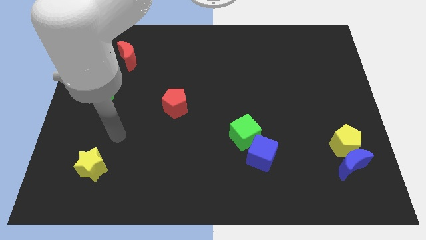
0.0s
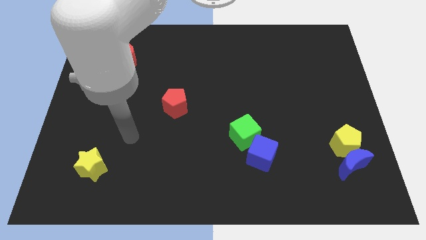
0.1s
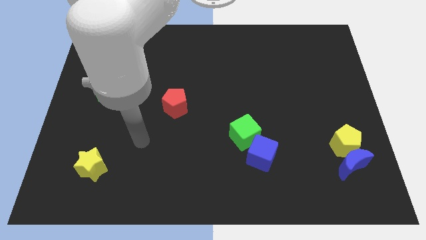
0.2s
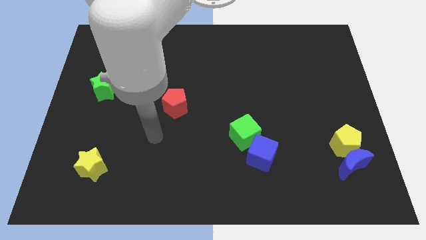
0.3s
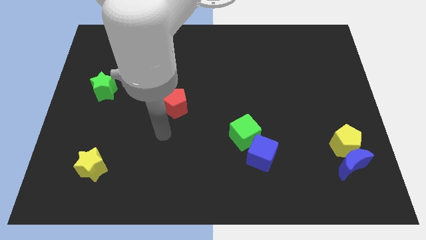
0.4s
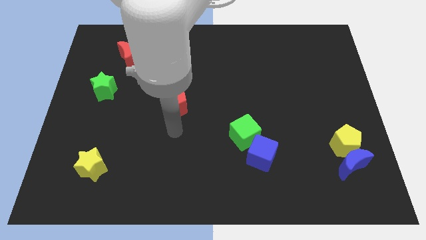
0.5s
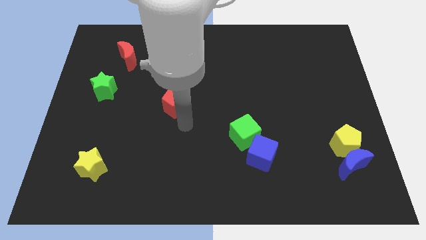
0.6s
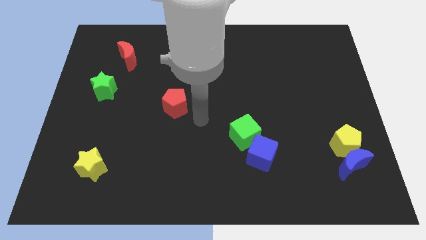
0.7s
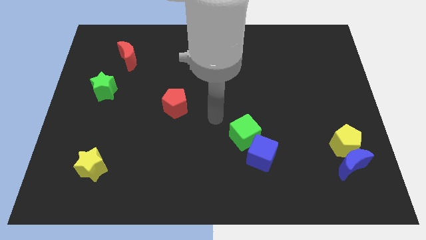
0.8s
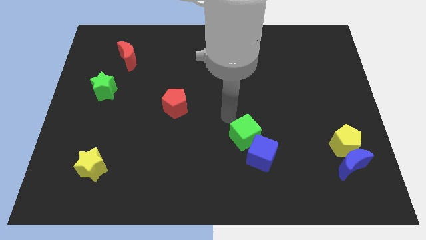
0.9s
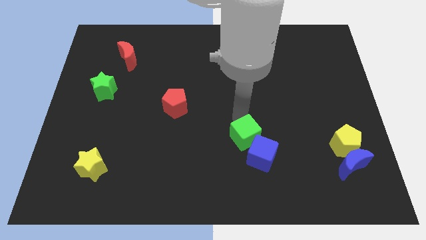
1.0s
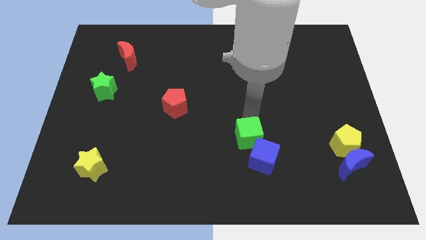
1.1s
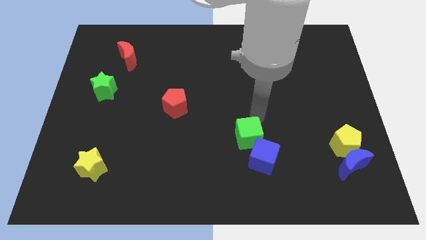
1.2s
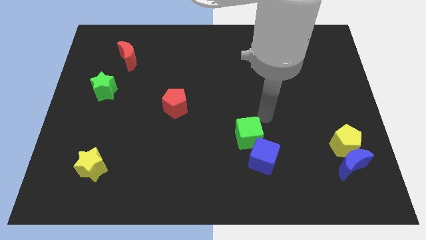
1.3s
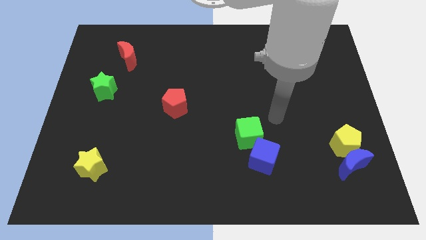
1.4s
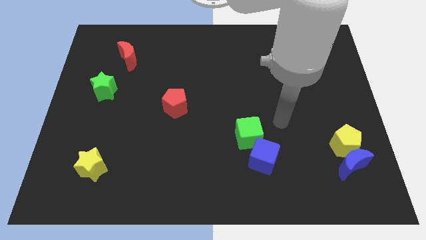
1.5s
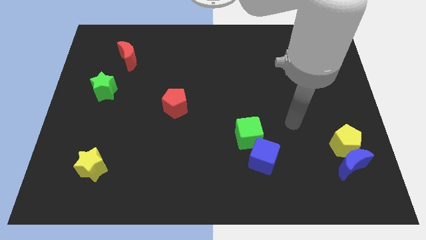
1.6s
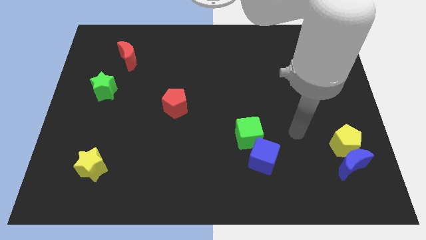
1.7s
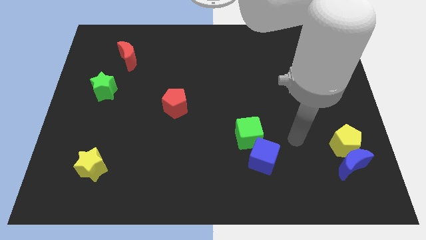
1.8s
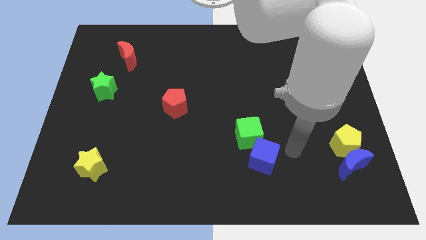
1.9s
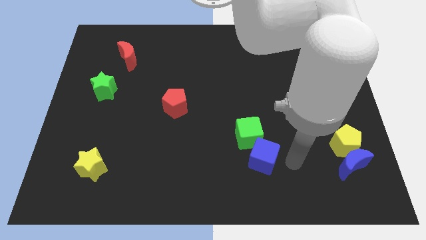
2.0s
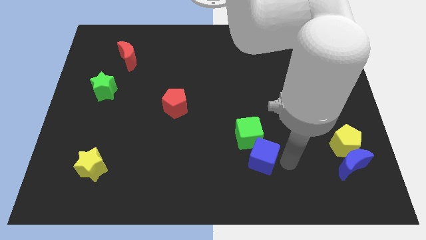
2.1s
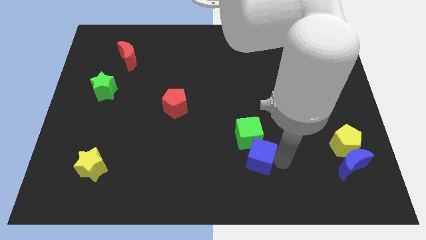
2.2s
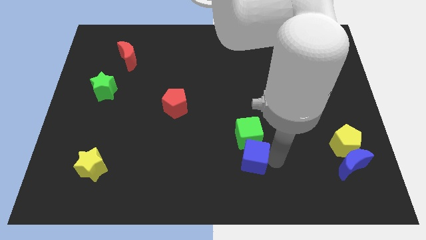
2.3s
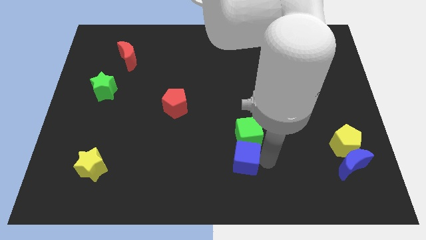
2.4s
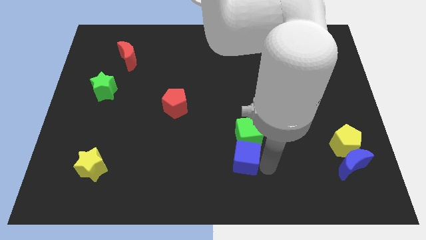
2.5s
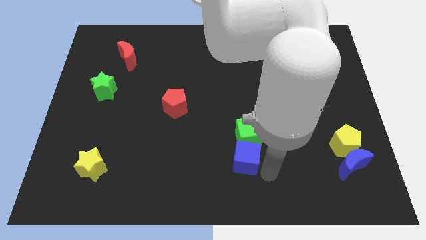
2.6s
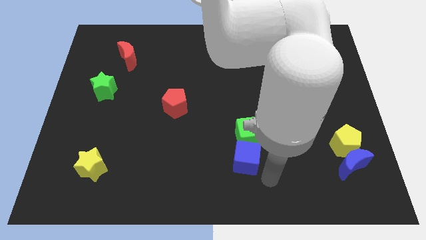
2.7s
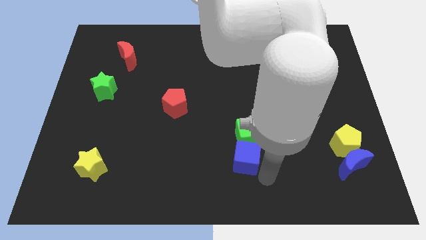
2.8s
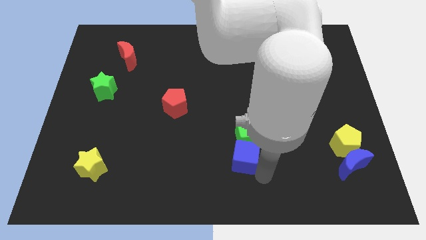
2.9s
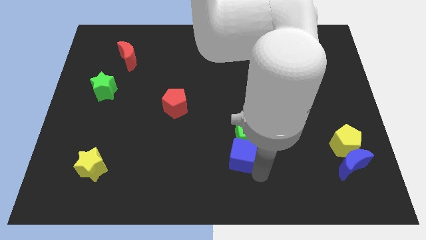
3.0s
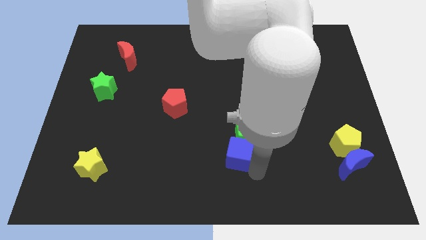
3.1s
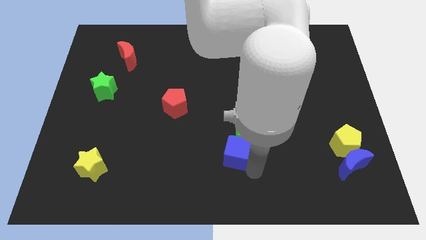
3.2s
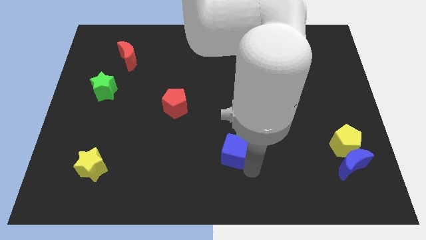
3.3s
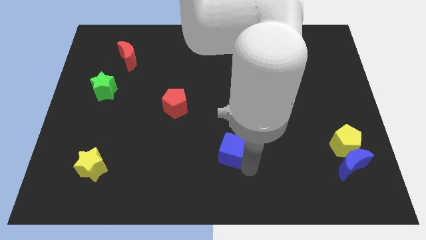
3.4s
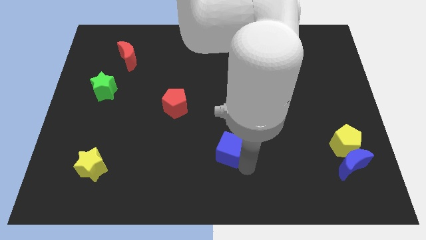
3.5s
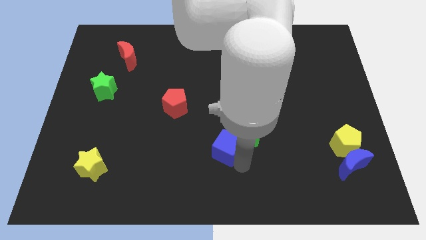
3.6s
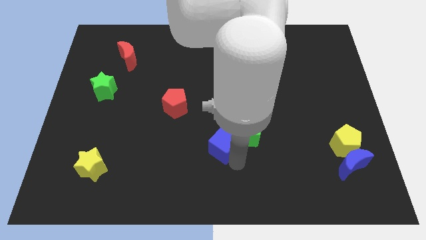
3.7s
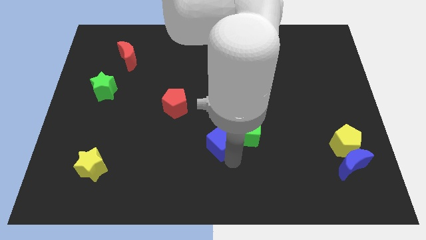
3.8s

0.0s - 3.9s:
slightly slide the blue cube upwards and to the left diagonally

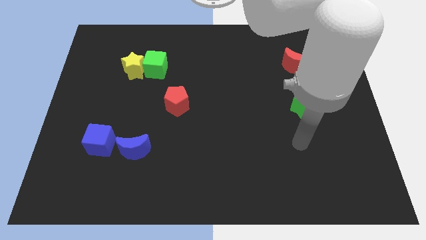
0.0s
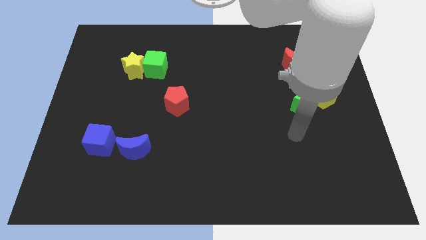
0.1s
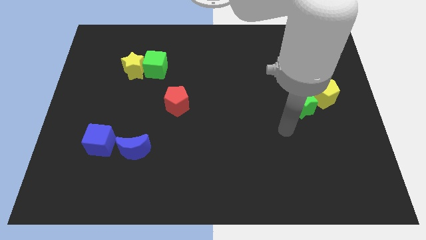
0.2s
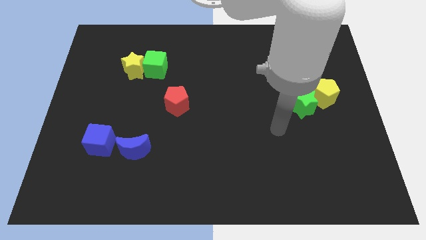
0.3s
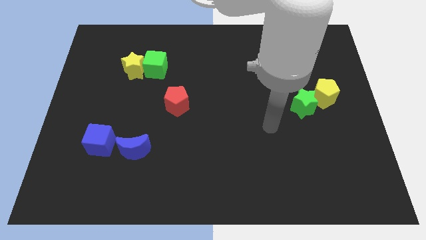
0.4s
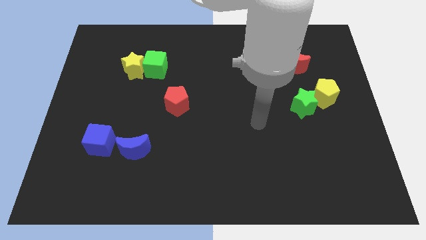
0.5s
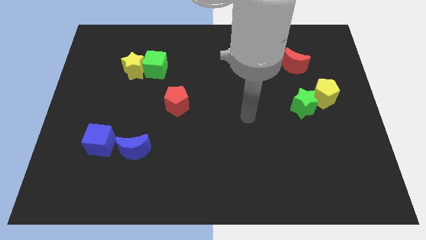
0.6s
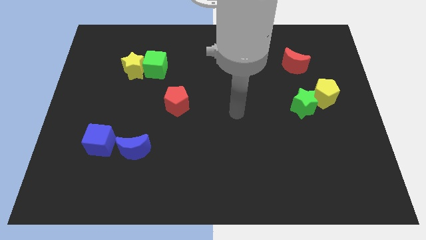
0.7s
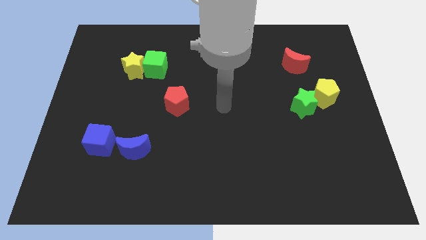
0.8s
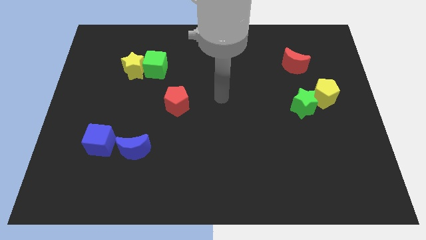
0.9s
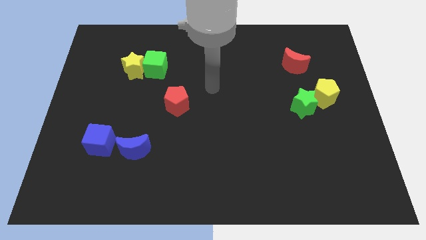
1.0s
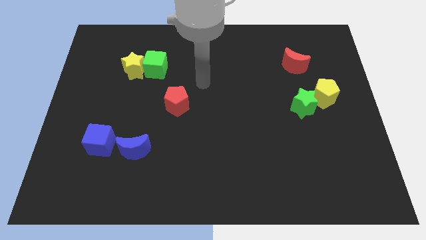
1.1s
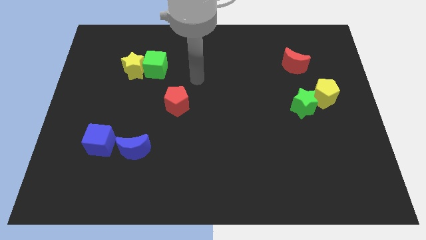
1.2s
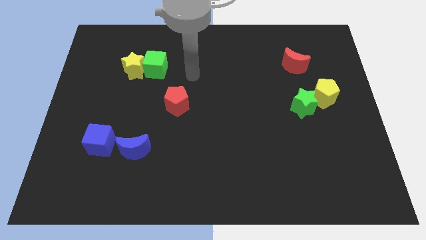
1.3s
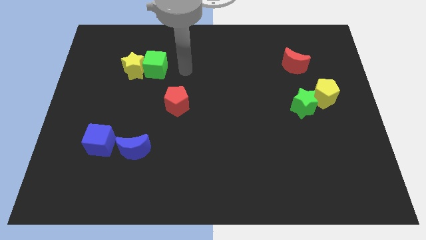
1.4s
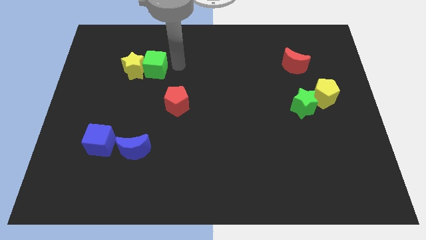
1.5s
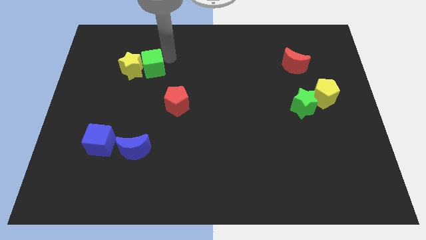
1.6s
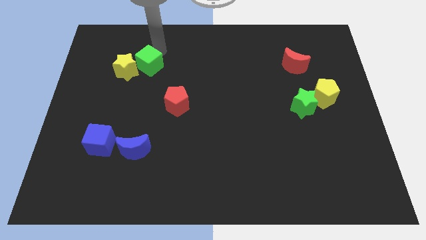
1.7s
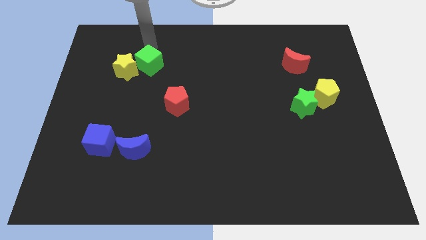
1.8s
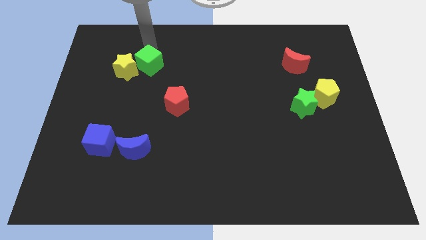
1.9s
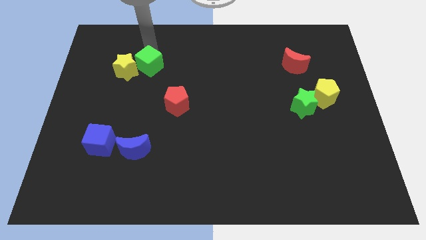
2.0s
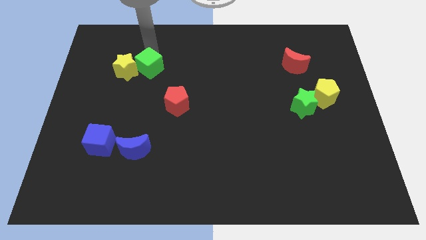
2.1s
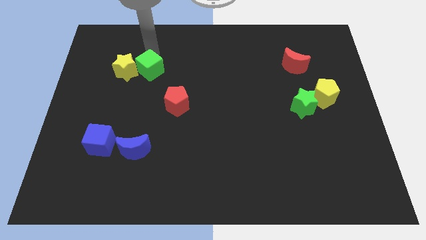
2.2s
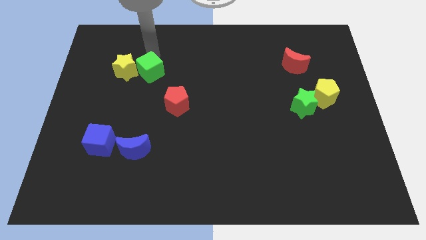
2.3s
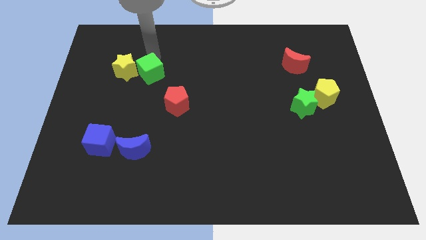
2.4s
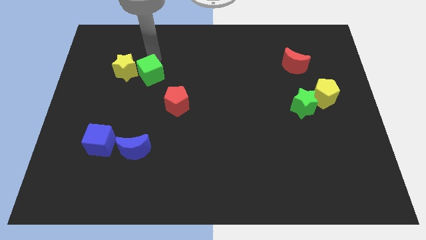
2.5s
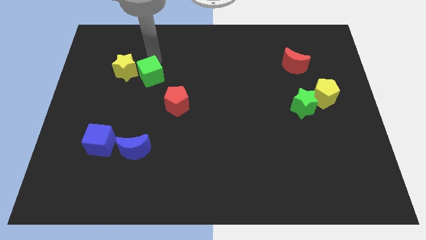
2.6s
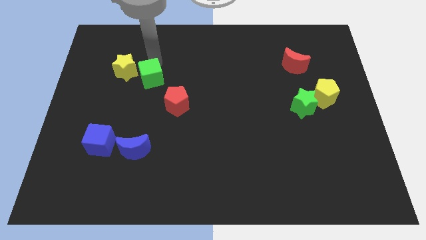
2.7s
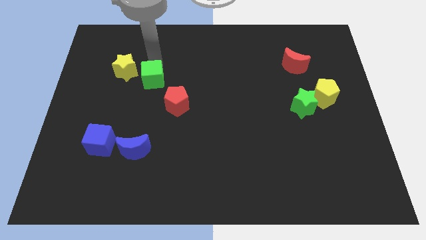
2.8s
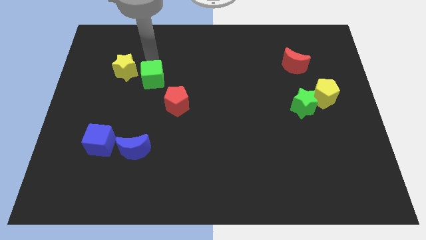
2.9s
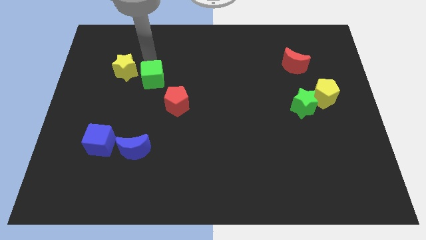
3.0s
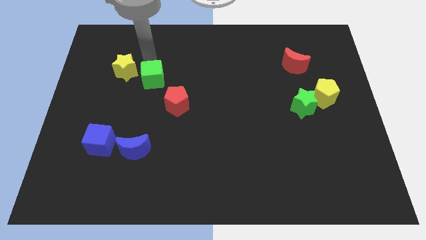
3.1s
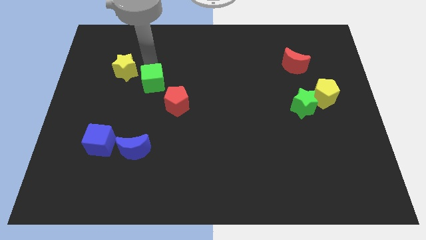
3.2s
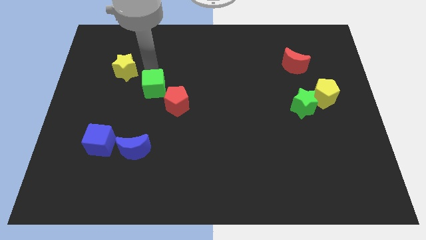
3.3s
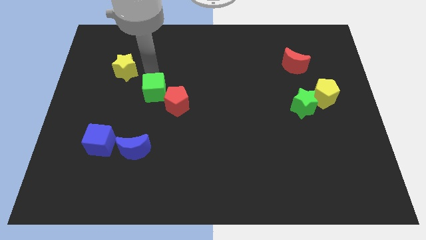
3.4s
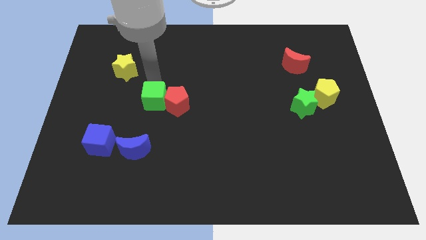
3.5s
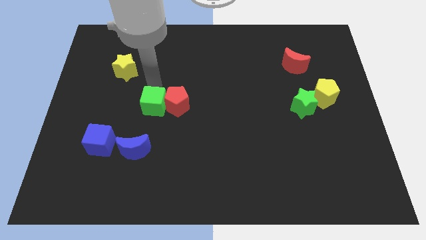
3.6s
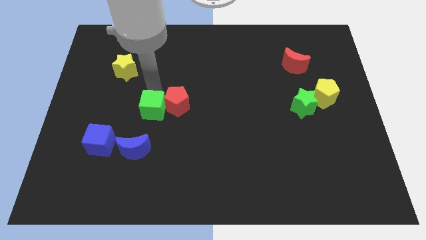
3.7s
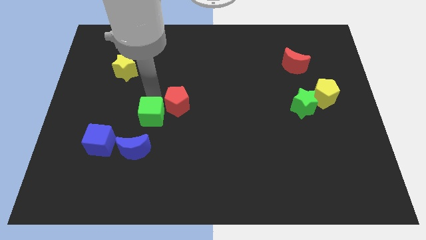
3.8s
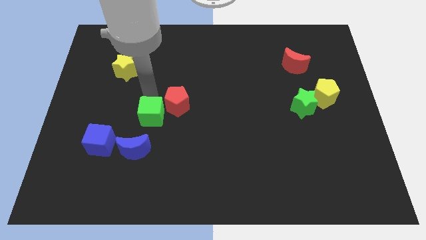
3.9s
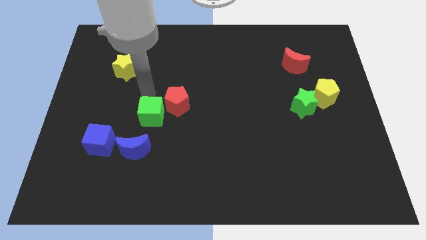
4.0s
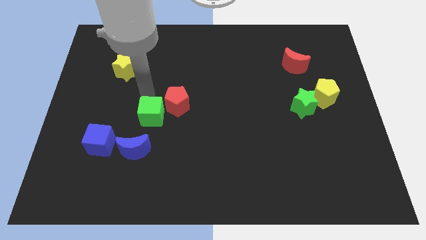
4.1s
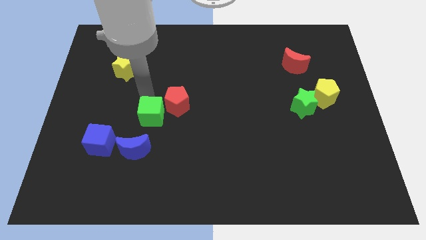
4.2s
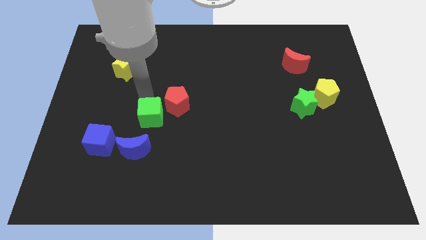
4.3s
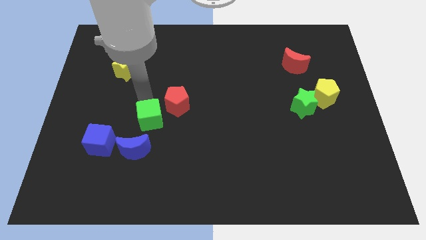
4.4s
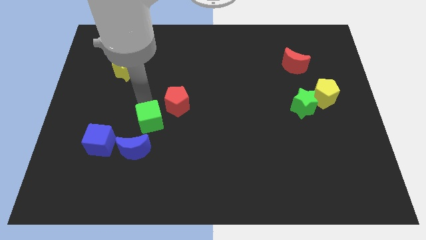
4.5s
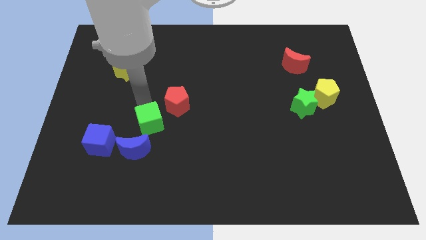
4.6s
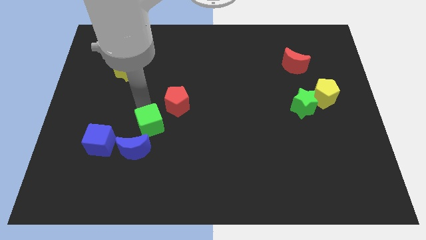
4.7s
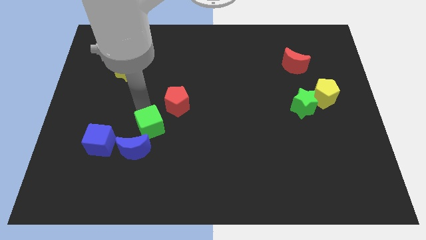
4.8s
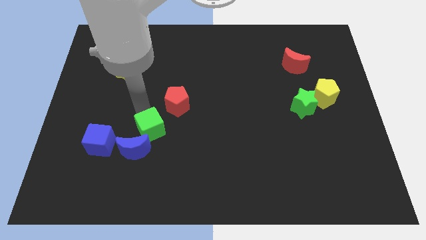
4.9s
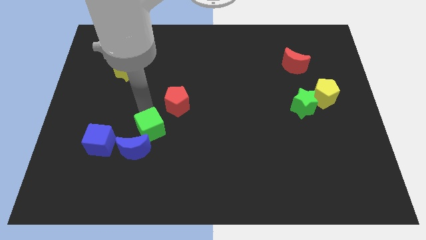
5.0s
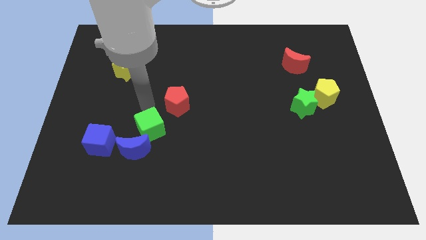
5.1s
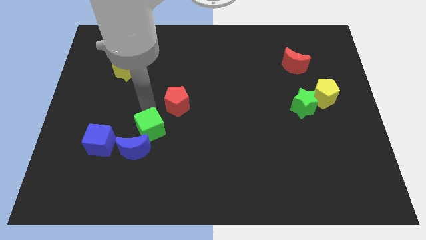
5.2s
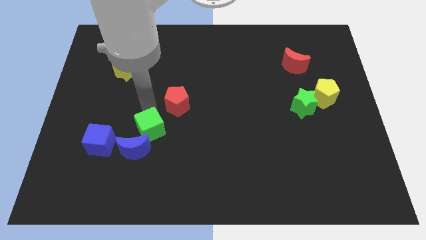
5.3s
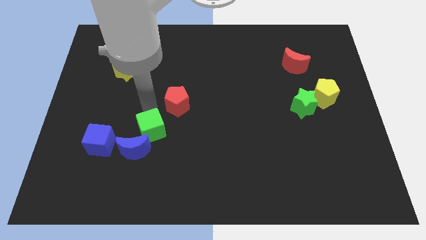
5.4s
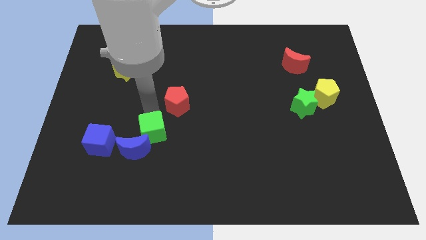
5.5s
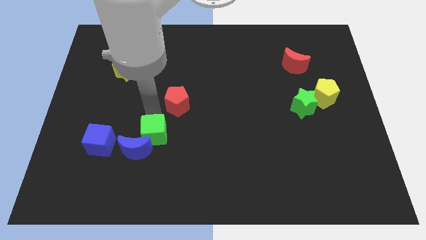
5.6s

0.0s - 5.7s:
move the green cube down
